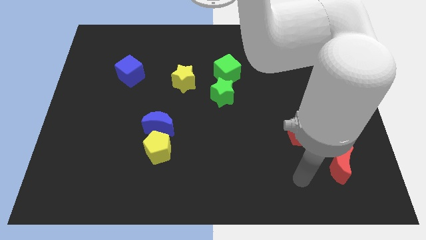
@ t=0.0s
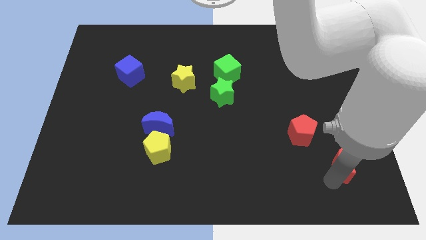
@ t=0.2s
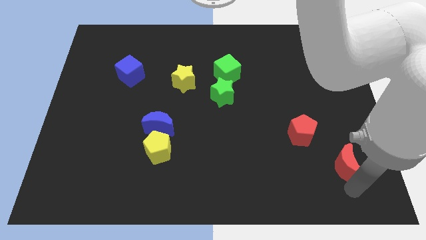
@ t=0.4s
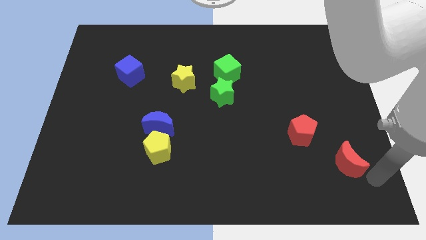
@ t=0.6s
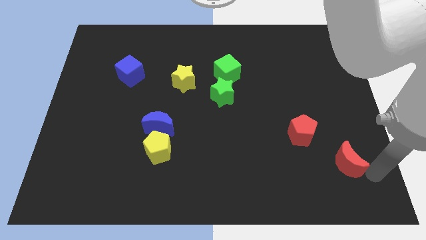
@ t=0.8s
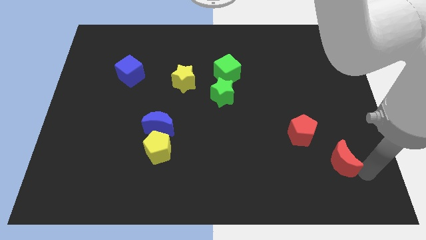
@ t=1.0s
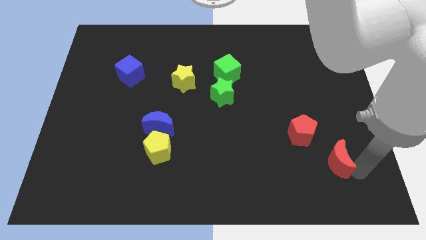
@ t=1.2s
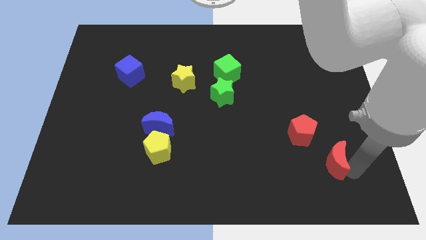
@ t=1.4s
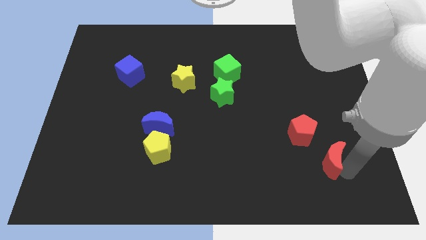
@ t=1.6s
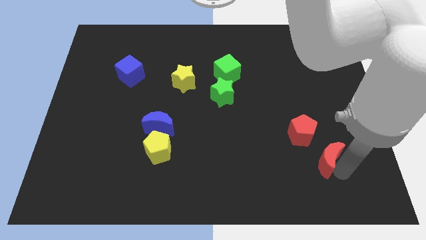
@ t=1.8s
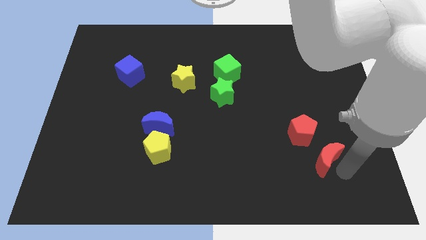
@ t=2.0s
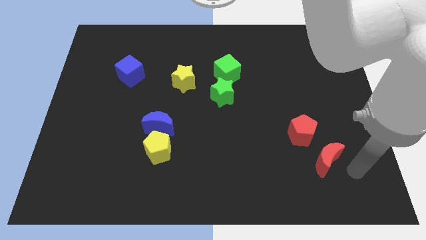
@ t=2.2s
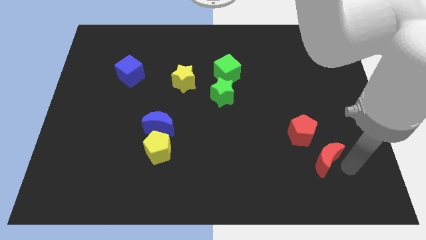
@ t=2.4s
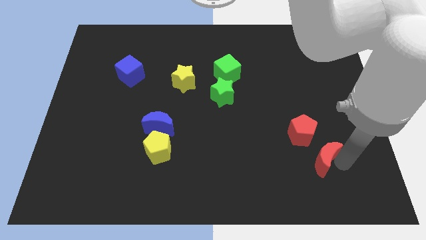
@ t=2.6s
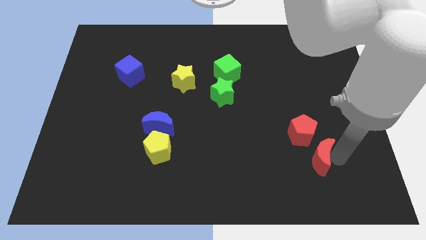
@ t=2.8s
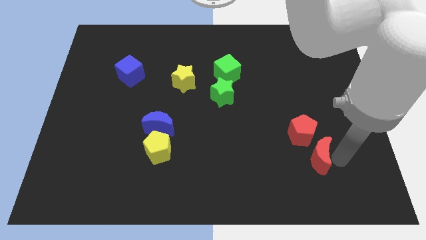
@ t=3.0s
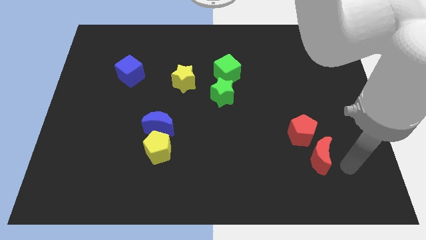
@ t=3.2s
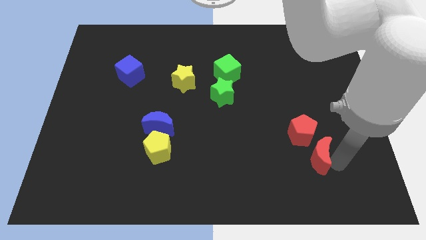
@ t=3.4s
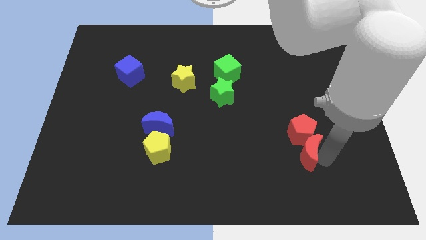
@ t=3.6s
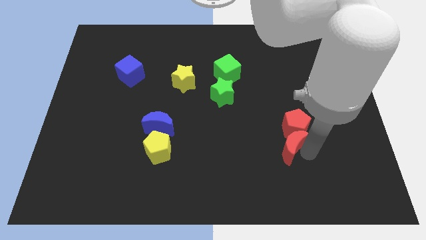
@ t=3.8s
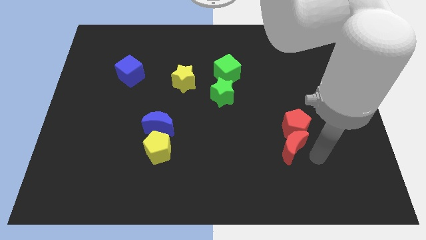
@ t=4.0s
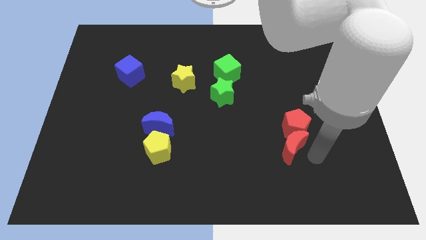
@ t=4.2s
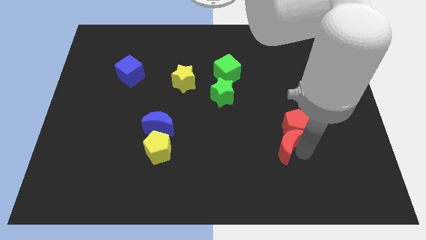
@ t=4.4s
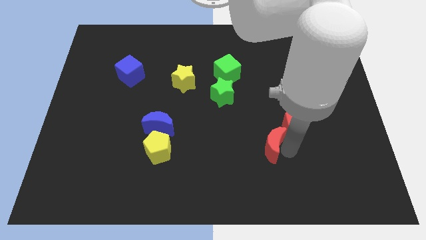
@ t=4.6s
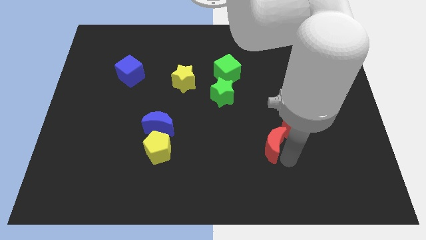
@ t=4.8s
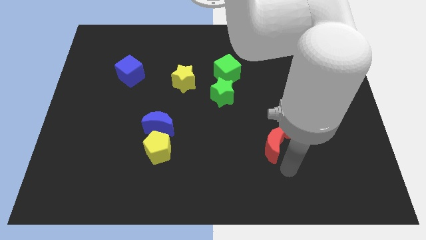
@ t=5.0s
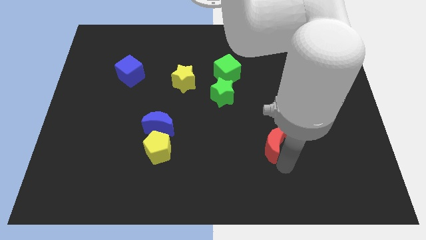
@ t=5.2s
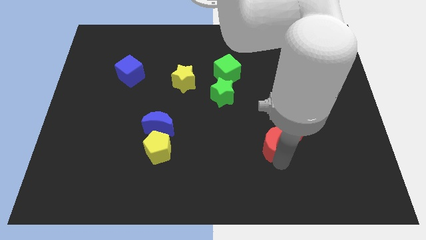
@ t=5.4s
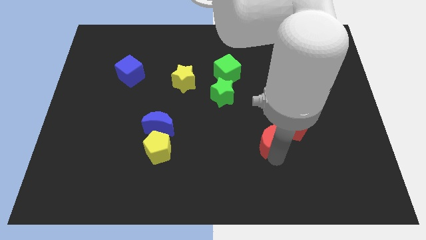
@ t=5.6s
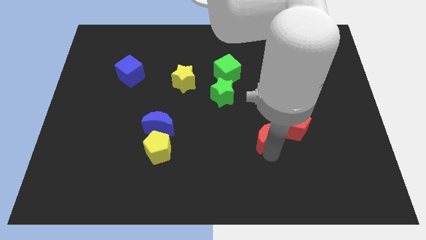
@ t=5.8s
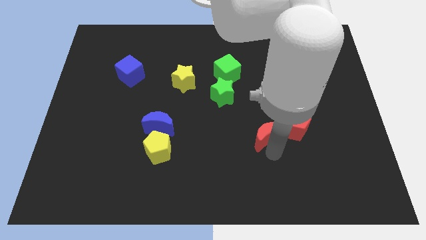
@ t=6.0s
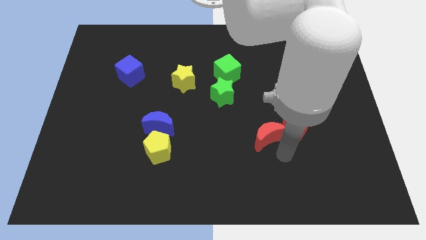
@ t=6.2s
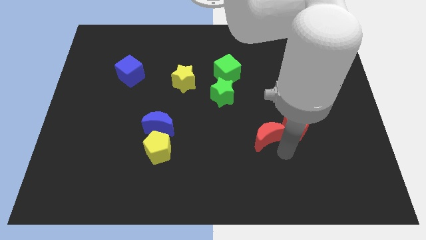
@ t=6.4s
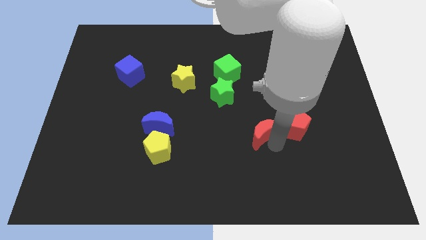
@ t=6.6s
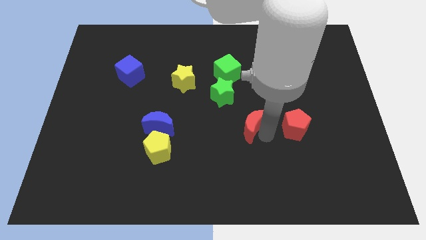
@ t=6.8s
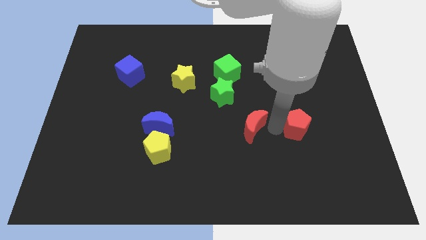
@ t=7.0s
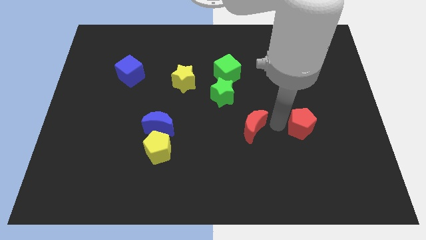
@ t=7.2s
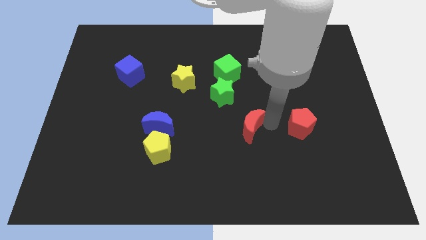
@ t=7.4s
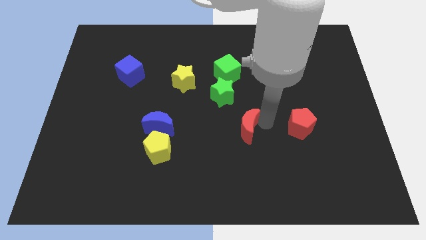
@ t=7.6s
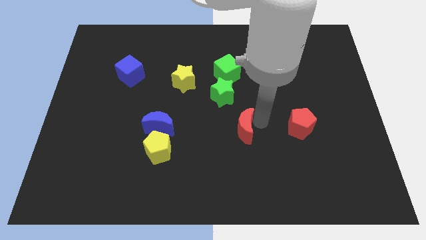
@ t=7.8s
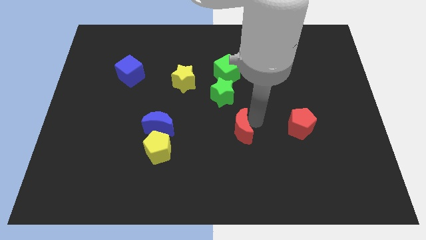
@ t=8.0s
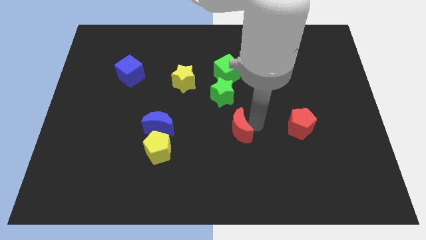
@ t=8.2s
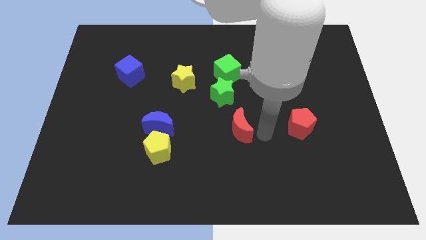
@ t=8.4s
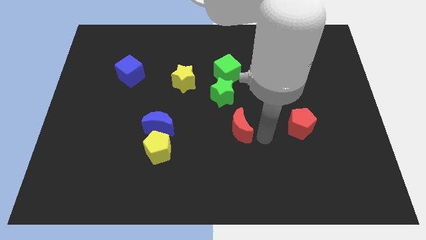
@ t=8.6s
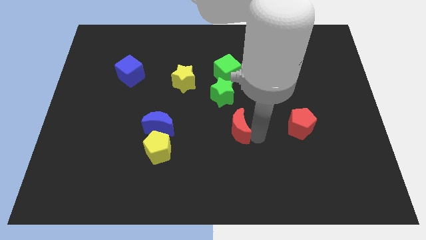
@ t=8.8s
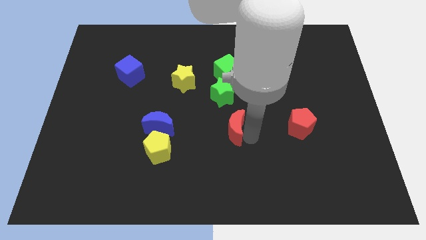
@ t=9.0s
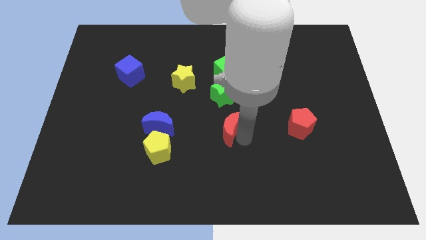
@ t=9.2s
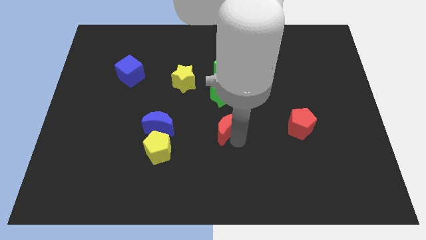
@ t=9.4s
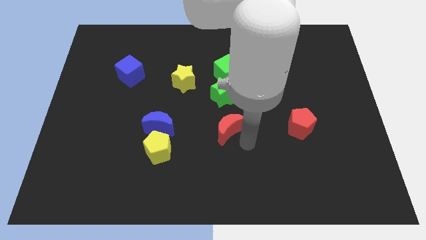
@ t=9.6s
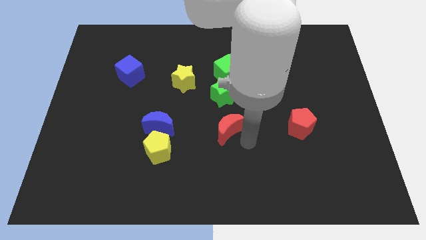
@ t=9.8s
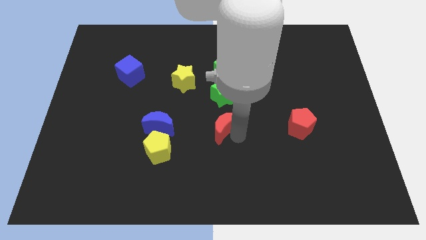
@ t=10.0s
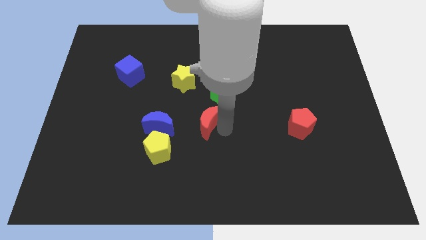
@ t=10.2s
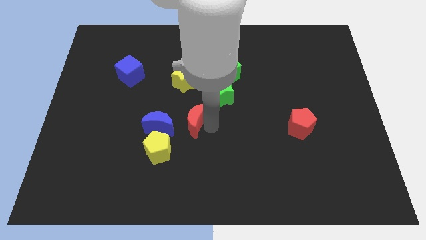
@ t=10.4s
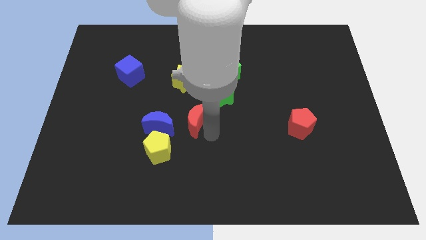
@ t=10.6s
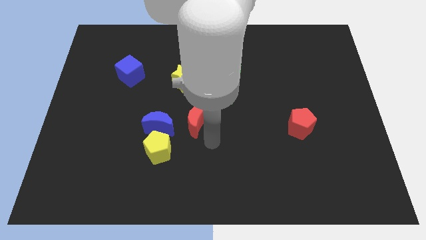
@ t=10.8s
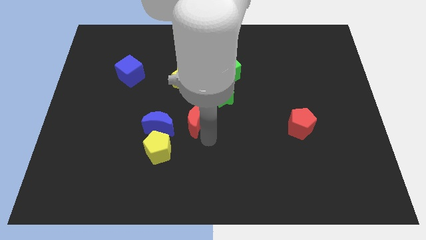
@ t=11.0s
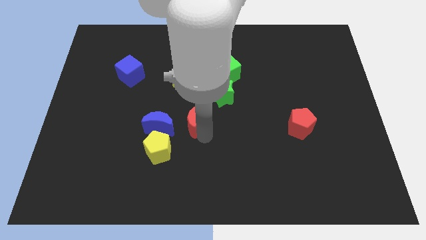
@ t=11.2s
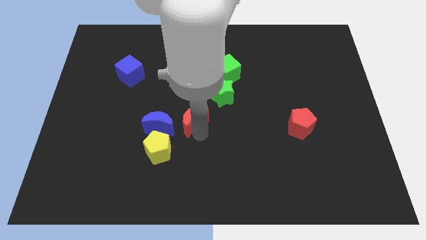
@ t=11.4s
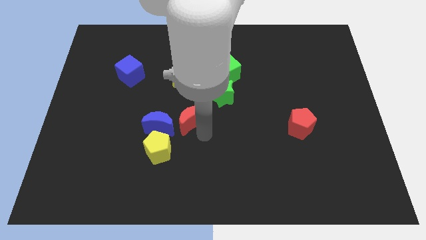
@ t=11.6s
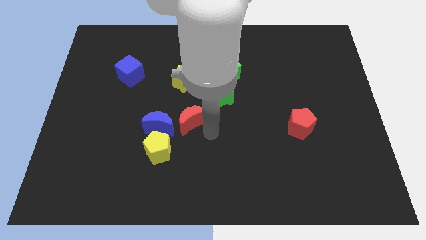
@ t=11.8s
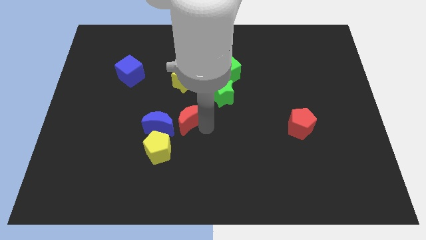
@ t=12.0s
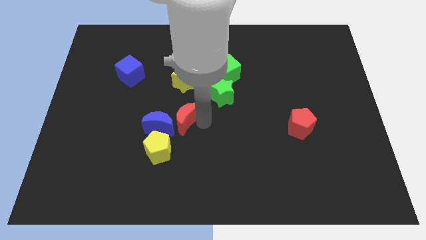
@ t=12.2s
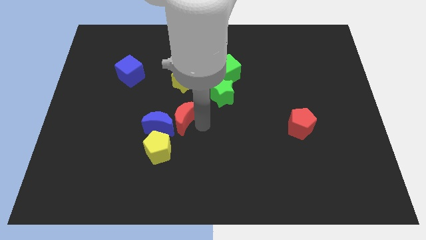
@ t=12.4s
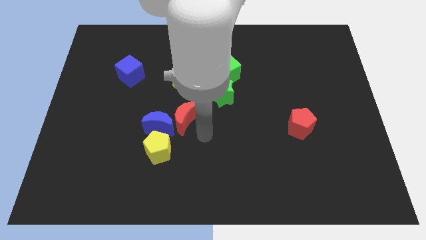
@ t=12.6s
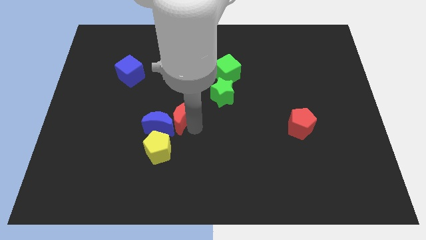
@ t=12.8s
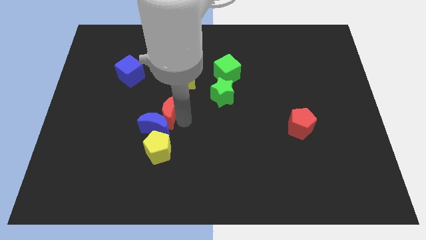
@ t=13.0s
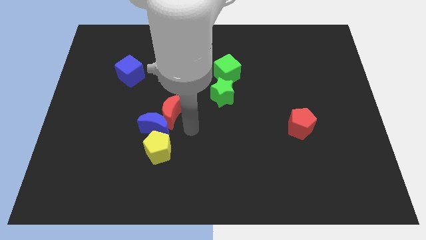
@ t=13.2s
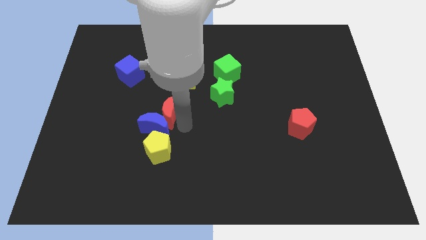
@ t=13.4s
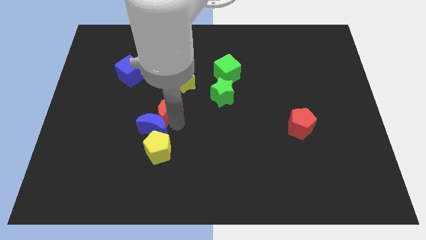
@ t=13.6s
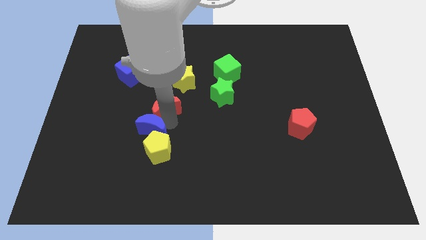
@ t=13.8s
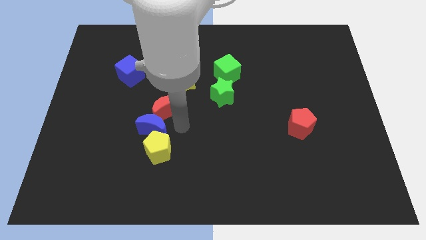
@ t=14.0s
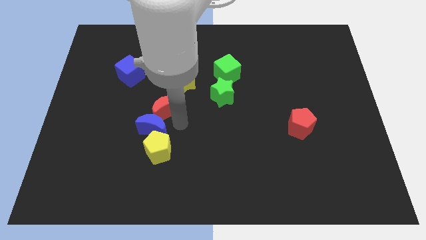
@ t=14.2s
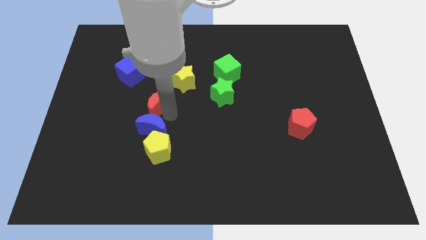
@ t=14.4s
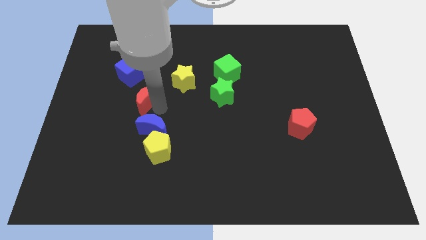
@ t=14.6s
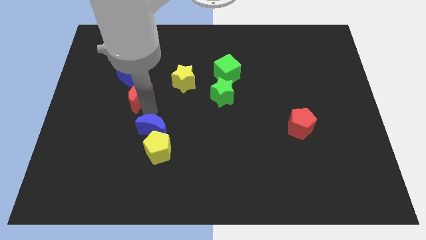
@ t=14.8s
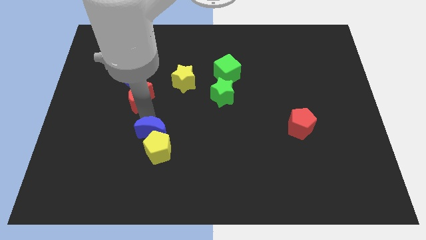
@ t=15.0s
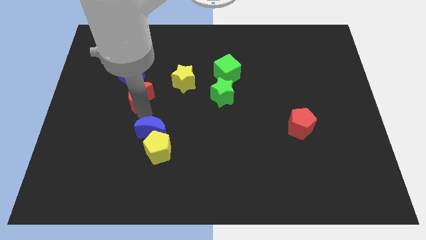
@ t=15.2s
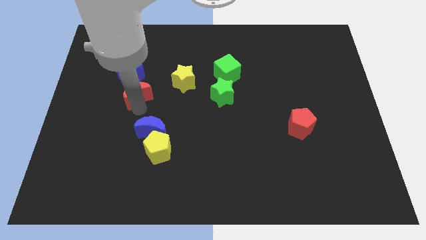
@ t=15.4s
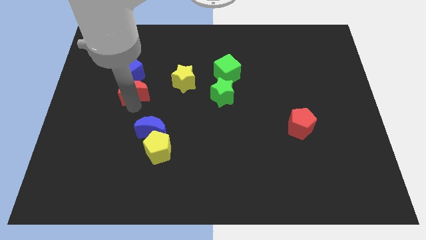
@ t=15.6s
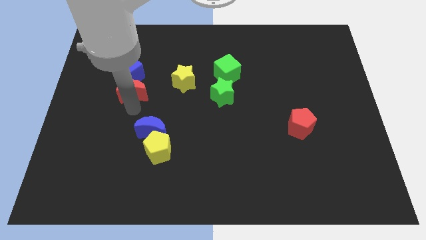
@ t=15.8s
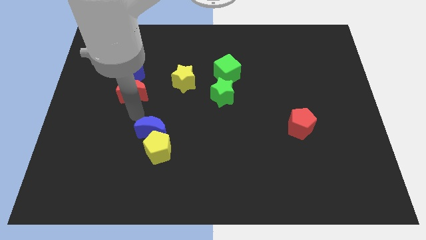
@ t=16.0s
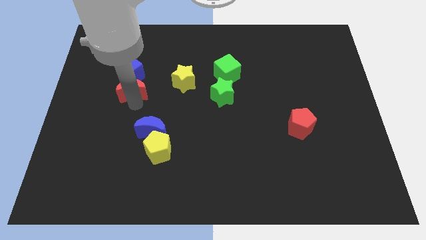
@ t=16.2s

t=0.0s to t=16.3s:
move the red moon to the blue cube
